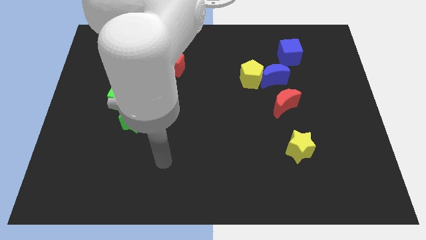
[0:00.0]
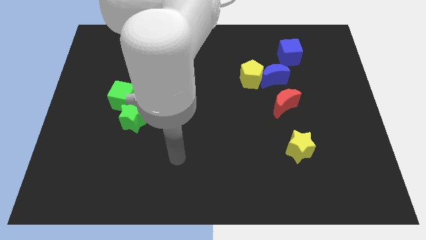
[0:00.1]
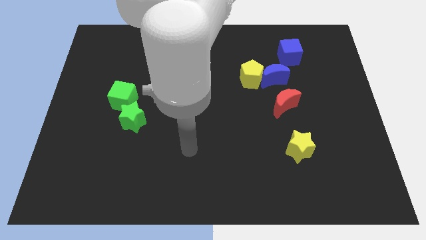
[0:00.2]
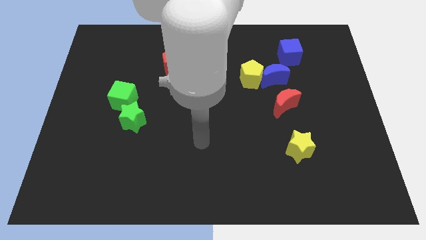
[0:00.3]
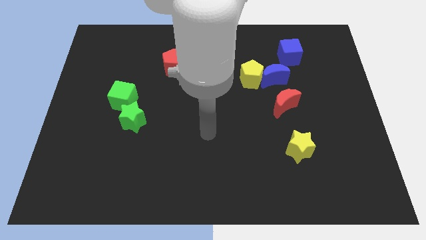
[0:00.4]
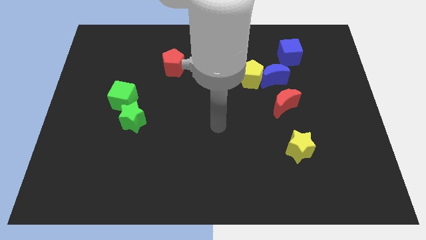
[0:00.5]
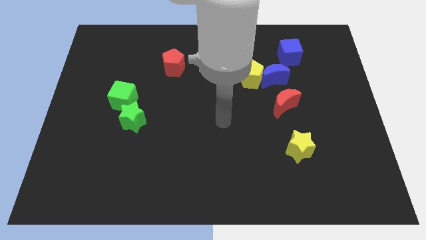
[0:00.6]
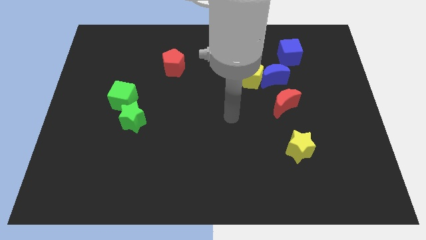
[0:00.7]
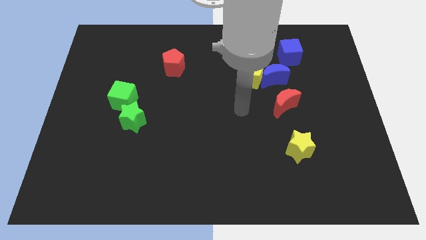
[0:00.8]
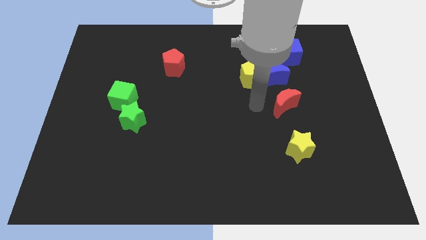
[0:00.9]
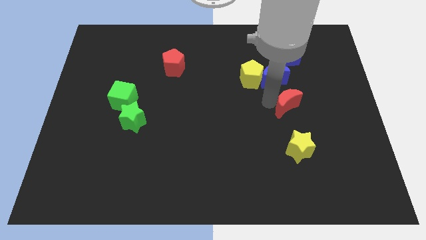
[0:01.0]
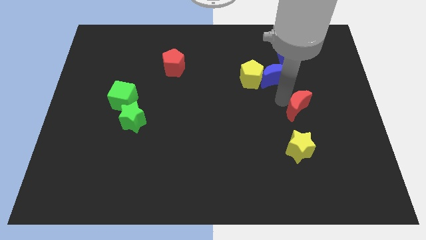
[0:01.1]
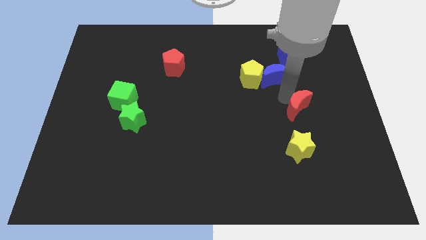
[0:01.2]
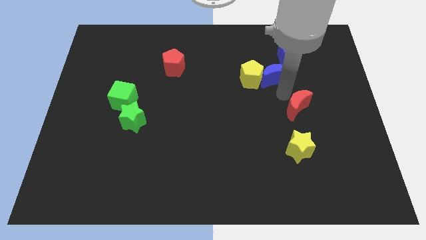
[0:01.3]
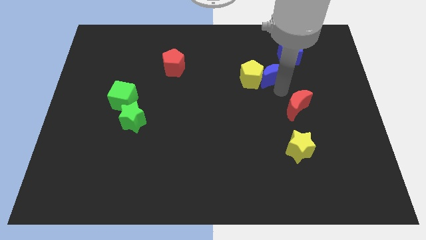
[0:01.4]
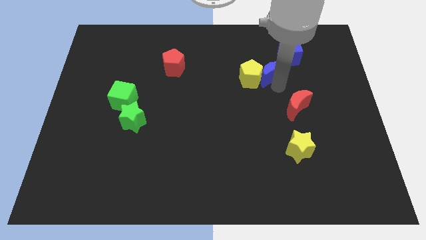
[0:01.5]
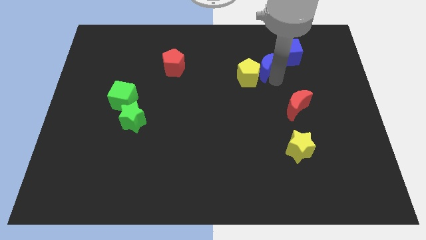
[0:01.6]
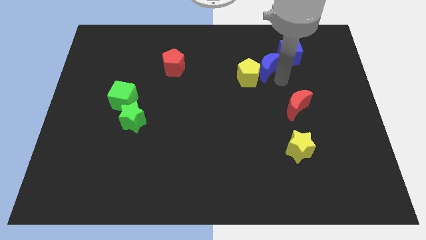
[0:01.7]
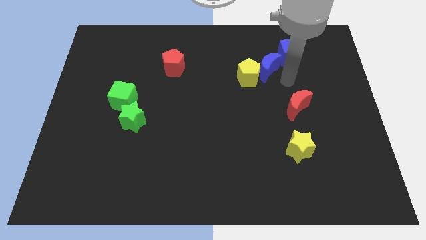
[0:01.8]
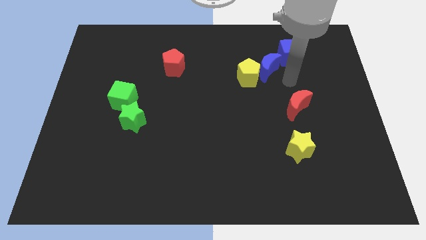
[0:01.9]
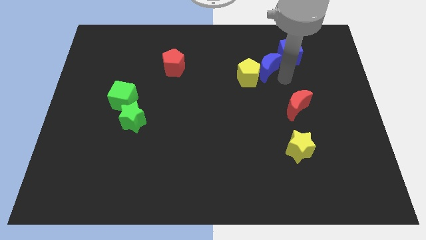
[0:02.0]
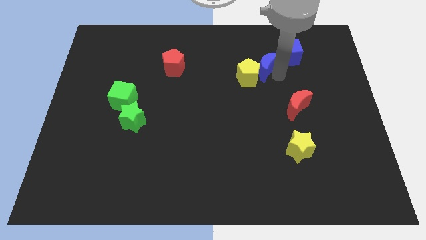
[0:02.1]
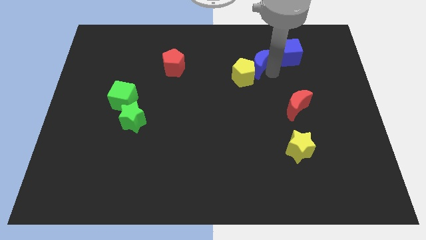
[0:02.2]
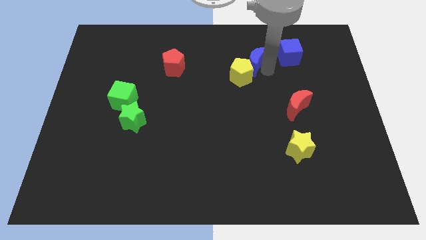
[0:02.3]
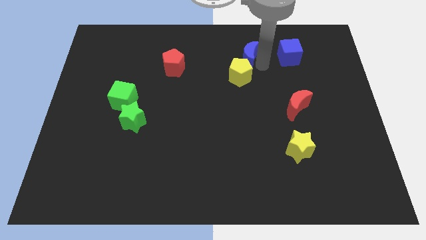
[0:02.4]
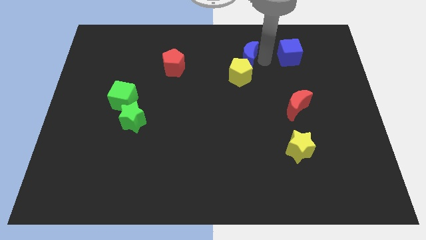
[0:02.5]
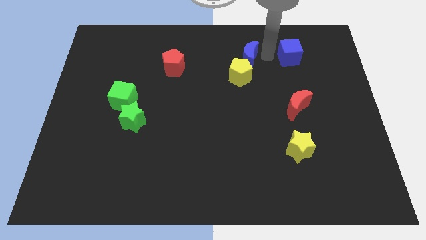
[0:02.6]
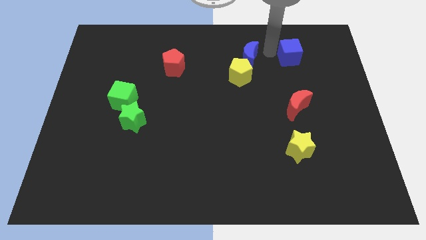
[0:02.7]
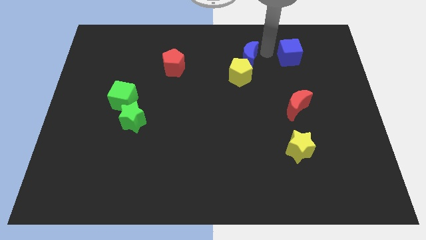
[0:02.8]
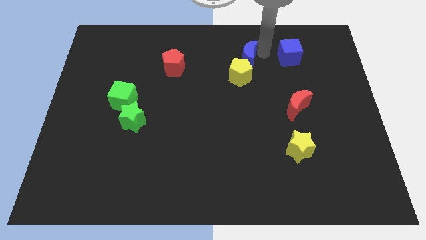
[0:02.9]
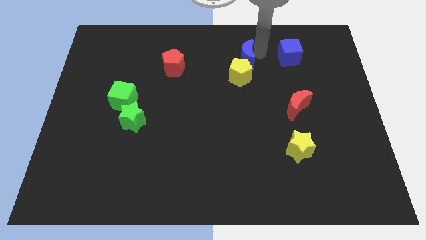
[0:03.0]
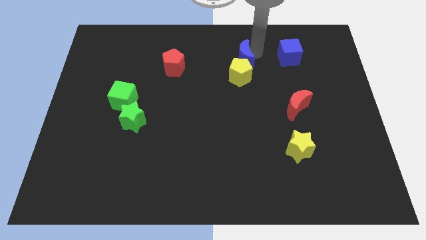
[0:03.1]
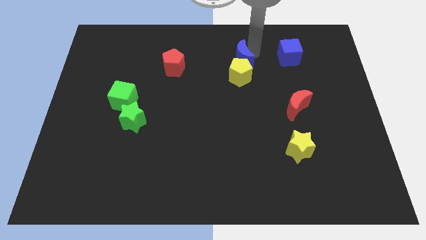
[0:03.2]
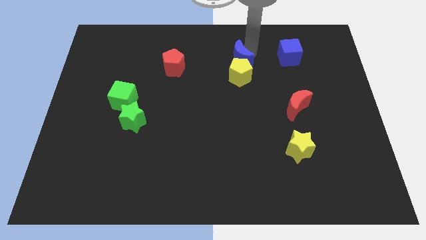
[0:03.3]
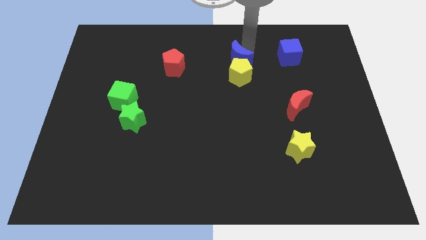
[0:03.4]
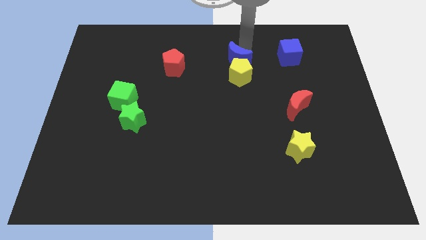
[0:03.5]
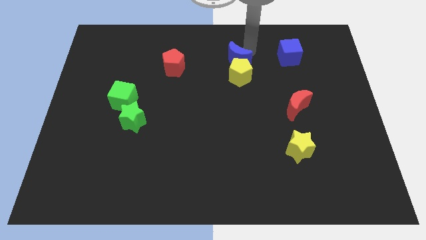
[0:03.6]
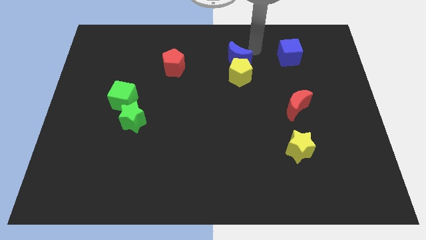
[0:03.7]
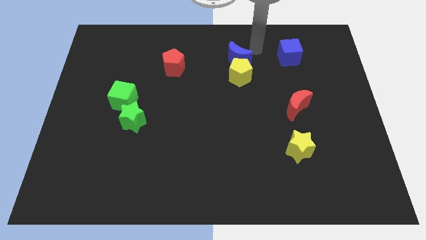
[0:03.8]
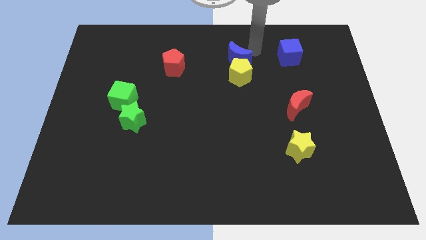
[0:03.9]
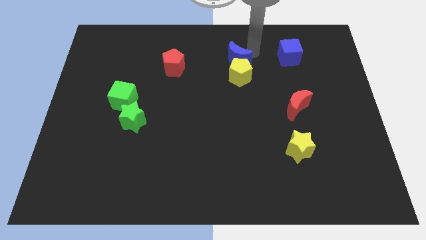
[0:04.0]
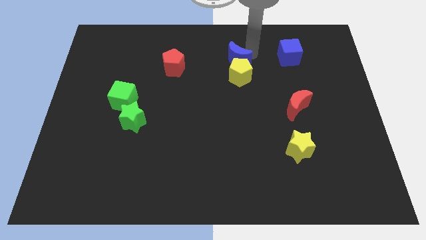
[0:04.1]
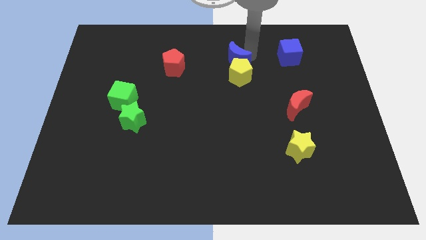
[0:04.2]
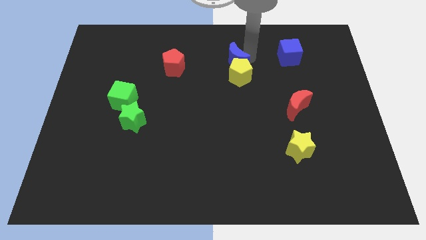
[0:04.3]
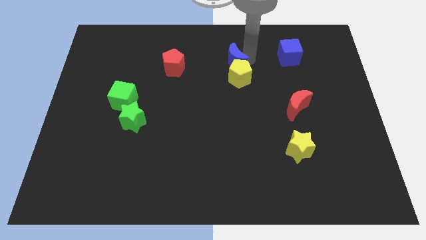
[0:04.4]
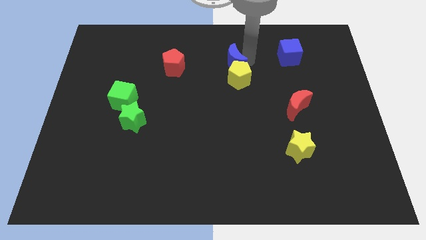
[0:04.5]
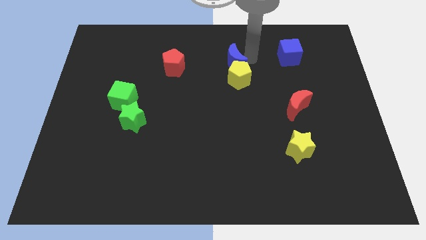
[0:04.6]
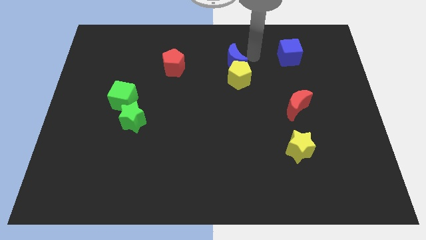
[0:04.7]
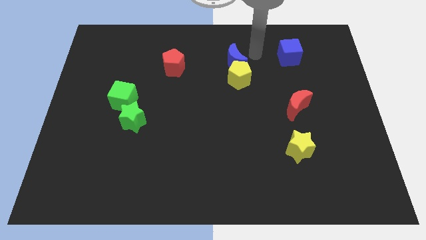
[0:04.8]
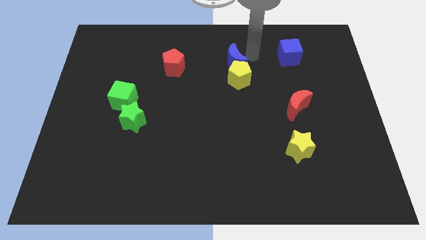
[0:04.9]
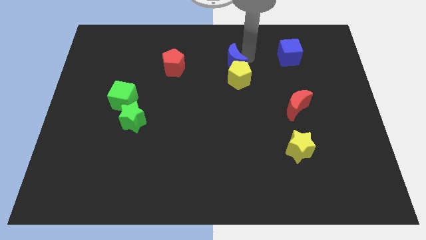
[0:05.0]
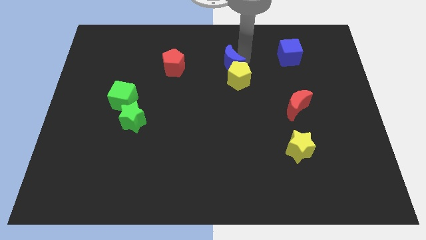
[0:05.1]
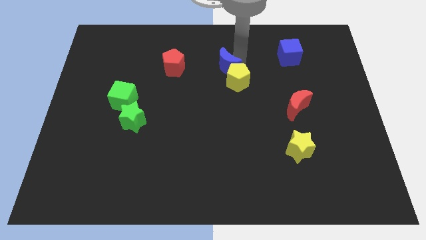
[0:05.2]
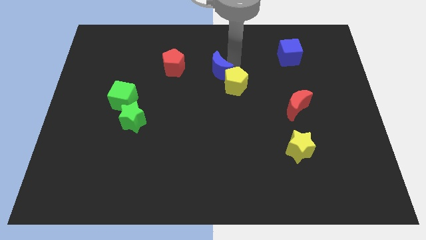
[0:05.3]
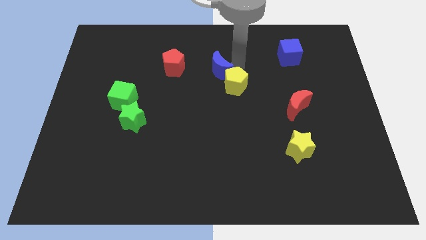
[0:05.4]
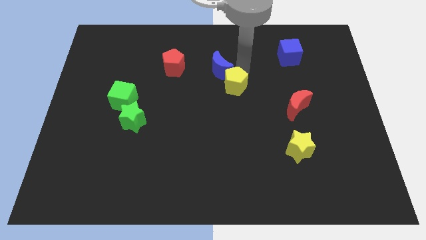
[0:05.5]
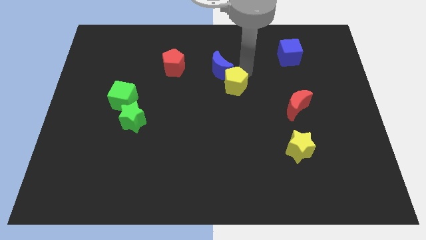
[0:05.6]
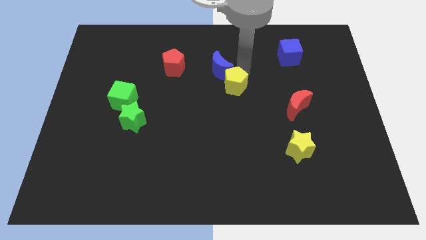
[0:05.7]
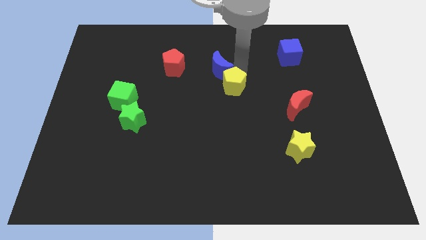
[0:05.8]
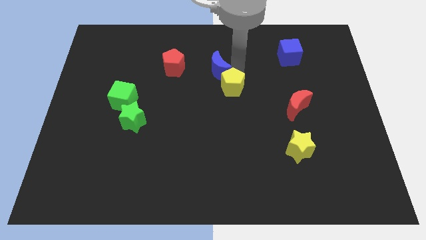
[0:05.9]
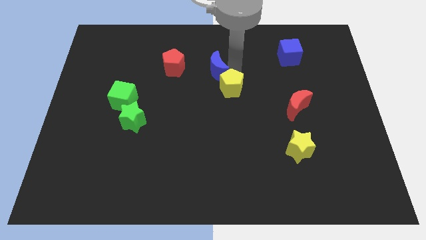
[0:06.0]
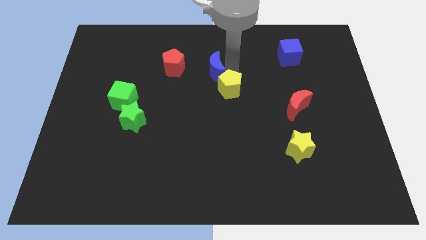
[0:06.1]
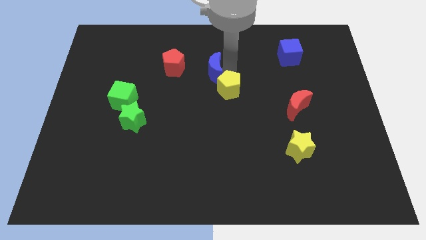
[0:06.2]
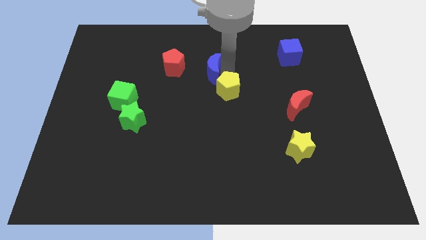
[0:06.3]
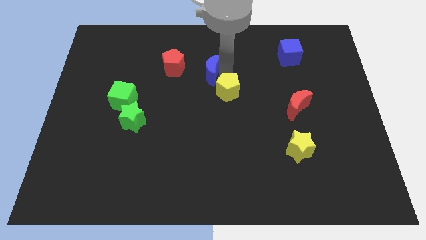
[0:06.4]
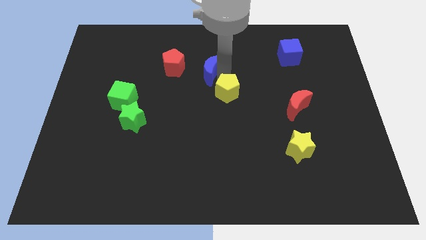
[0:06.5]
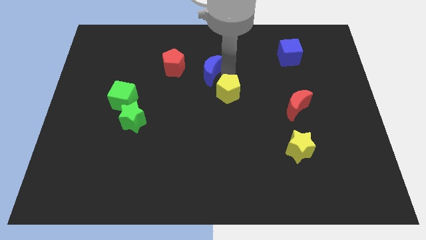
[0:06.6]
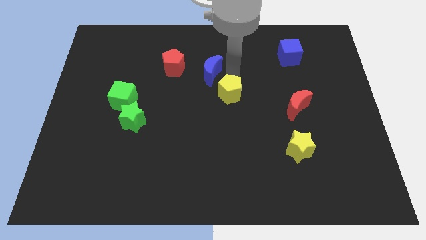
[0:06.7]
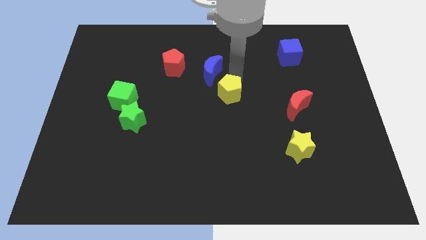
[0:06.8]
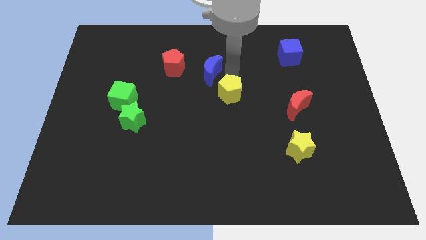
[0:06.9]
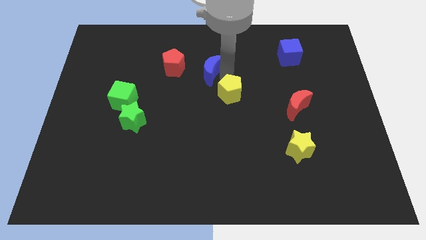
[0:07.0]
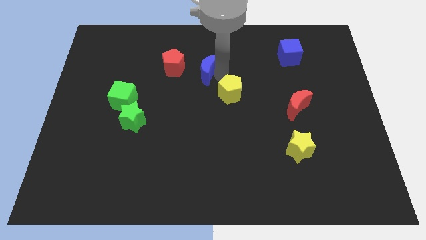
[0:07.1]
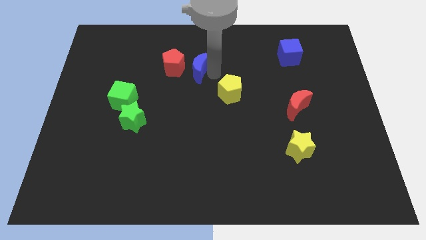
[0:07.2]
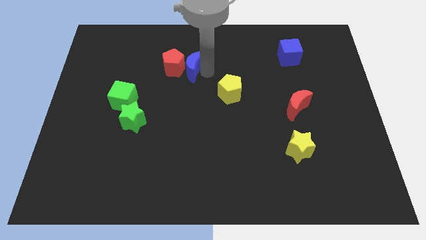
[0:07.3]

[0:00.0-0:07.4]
slide the blue moon next to the red pentagon

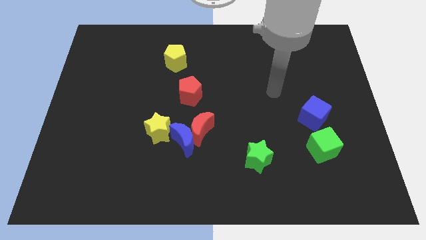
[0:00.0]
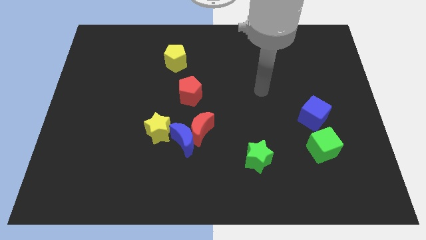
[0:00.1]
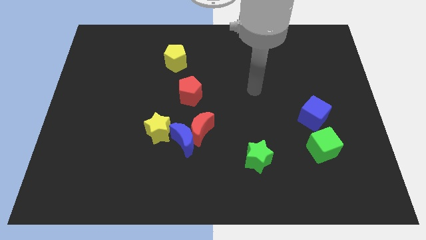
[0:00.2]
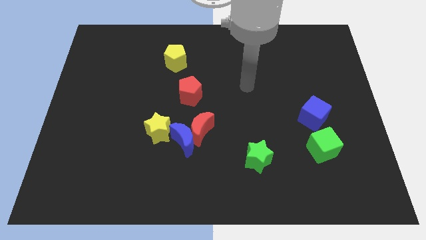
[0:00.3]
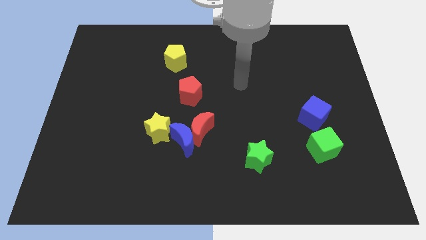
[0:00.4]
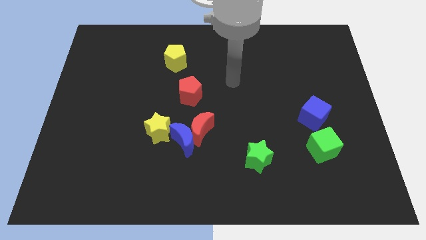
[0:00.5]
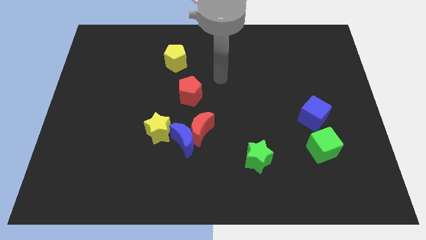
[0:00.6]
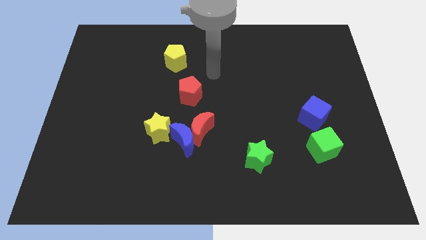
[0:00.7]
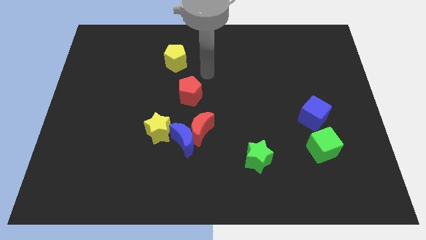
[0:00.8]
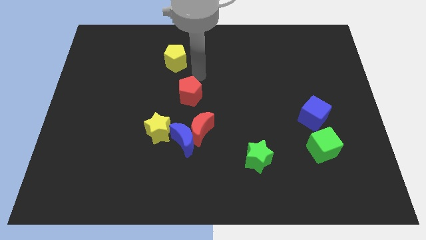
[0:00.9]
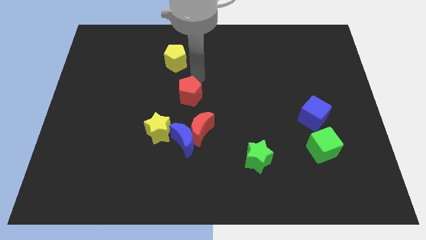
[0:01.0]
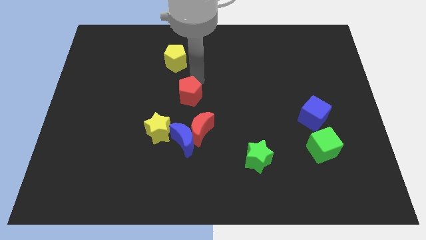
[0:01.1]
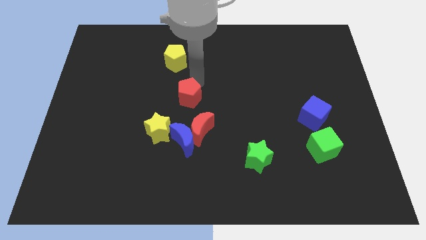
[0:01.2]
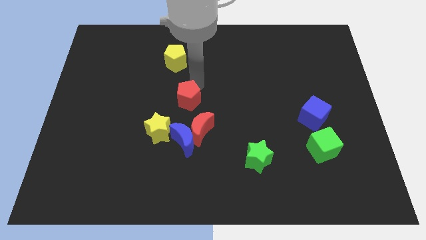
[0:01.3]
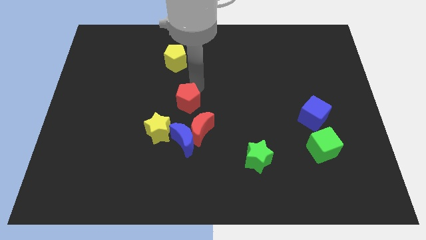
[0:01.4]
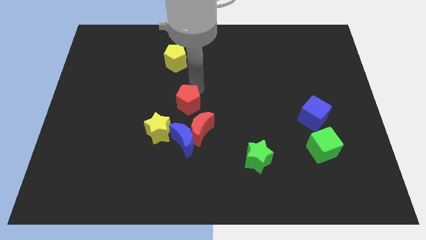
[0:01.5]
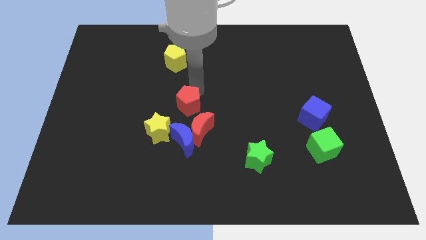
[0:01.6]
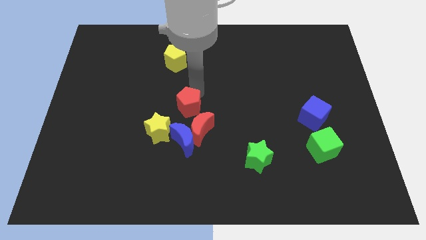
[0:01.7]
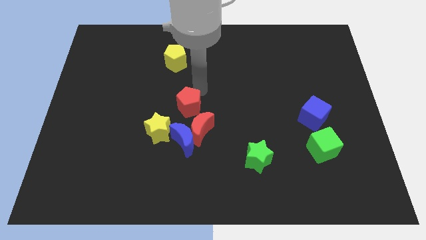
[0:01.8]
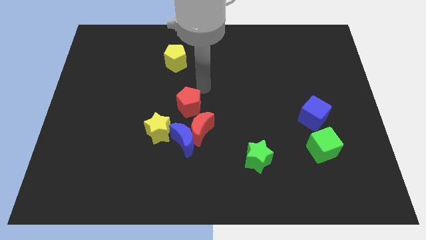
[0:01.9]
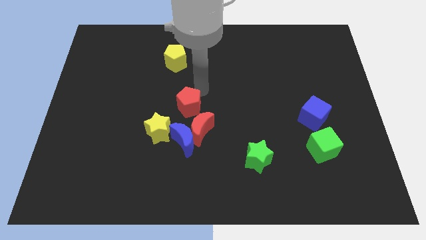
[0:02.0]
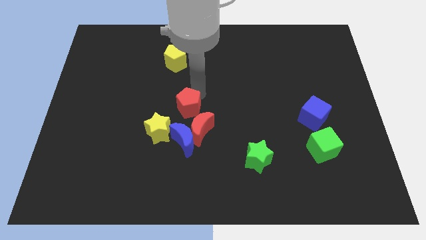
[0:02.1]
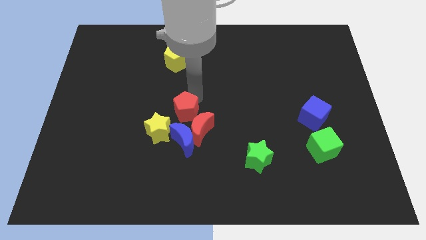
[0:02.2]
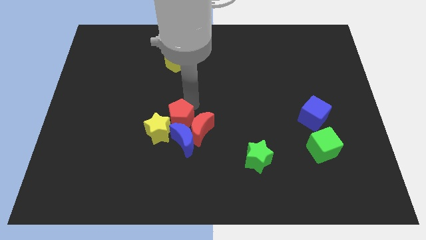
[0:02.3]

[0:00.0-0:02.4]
slide the red pentagon towards the yellow star
